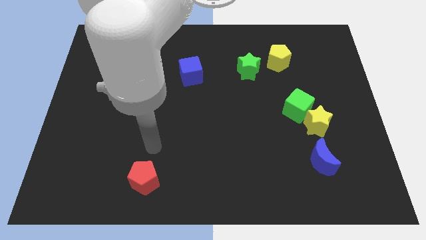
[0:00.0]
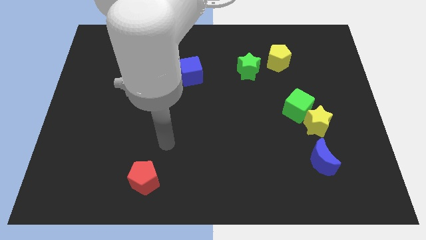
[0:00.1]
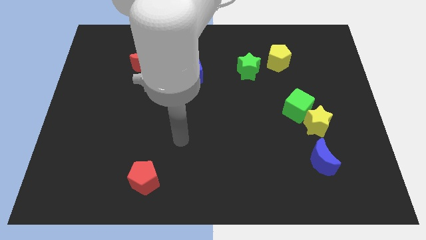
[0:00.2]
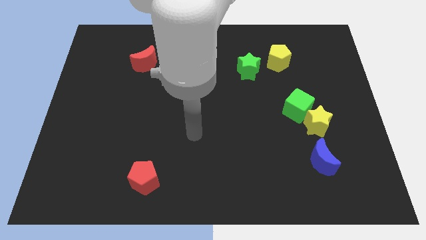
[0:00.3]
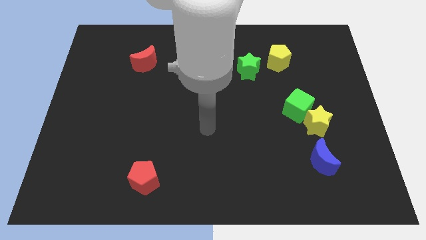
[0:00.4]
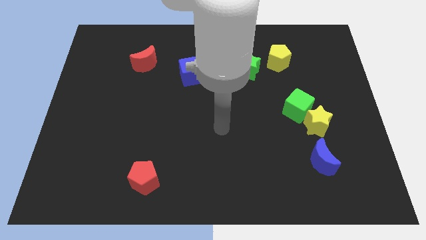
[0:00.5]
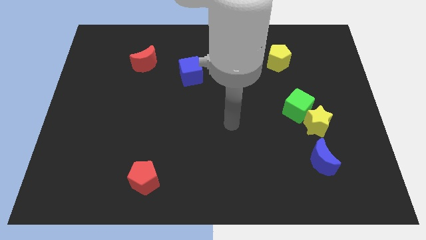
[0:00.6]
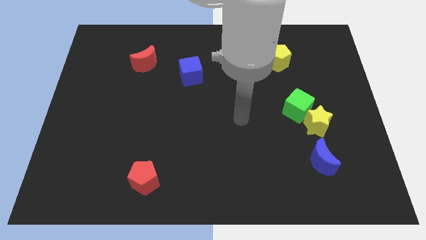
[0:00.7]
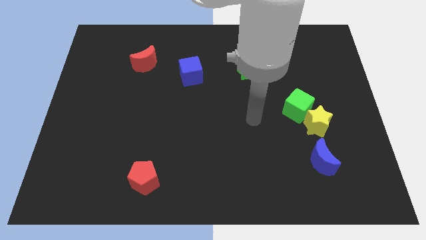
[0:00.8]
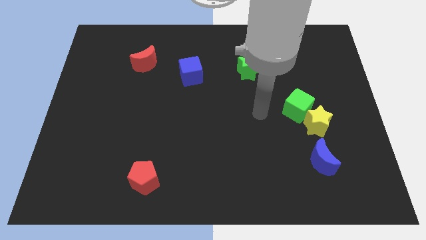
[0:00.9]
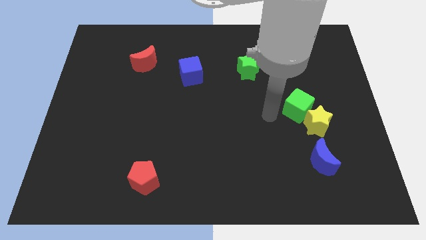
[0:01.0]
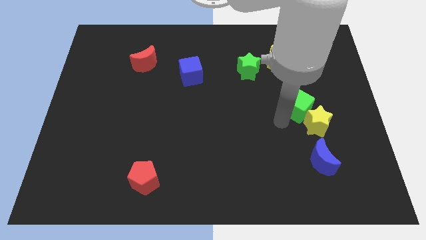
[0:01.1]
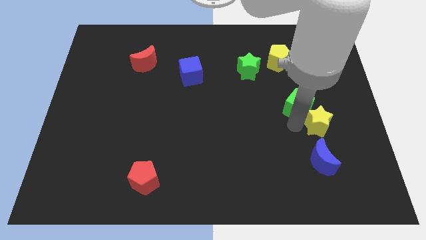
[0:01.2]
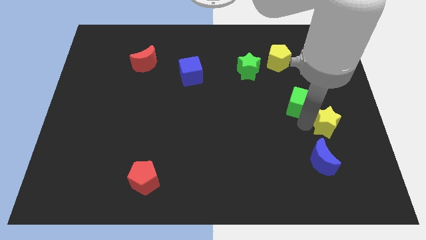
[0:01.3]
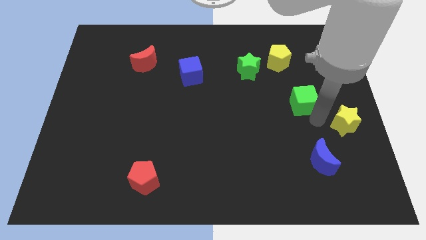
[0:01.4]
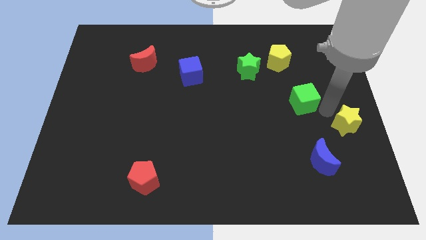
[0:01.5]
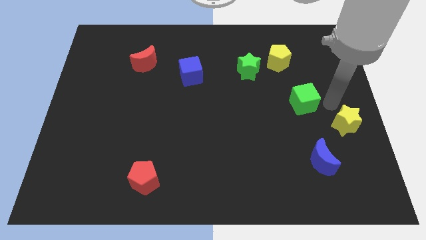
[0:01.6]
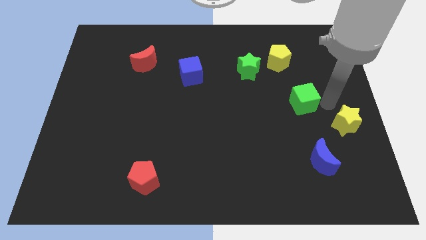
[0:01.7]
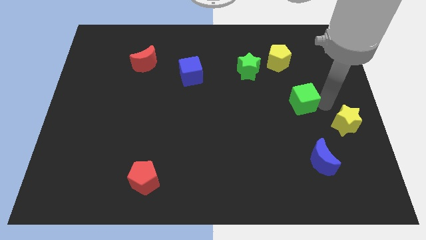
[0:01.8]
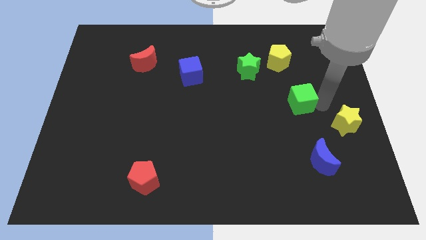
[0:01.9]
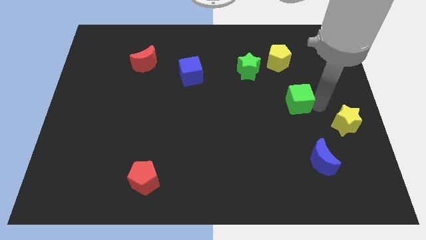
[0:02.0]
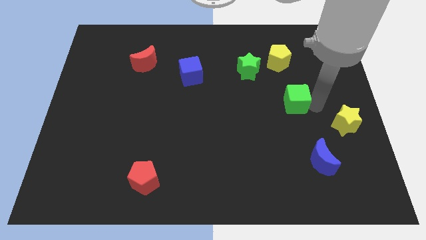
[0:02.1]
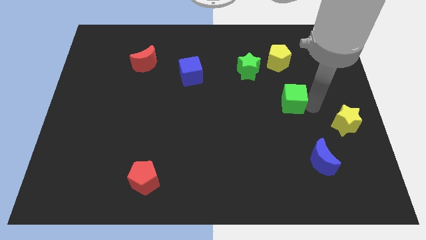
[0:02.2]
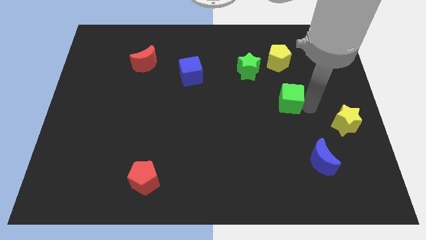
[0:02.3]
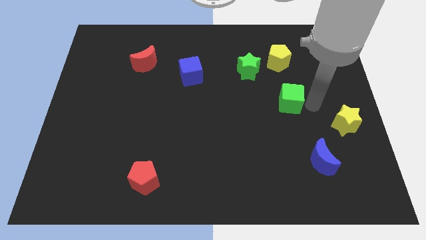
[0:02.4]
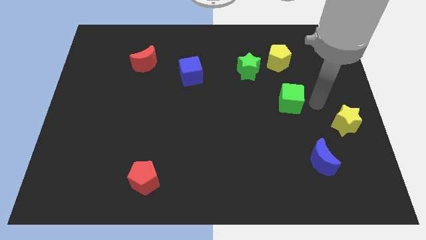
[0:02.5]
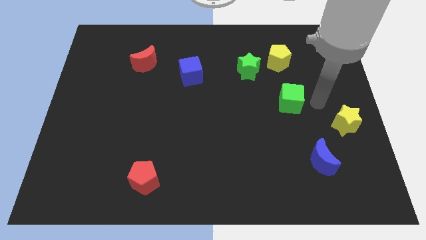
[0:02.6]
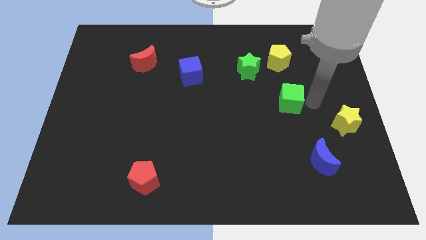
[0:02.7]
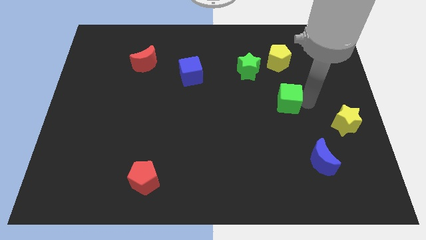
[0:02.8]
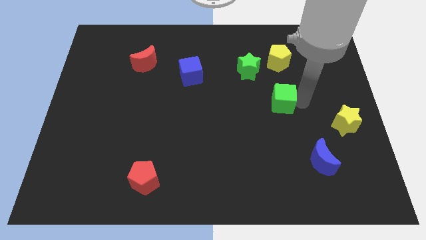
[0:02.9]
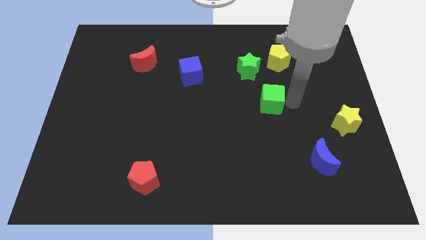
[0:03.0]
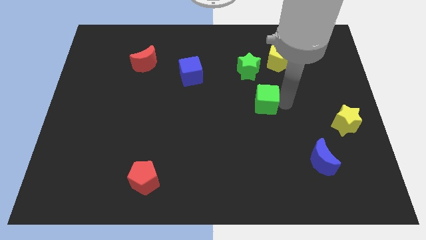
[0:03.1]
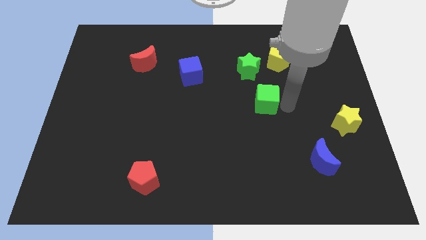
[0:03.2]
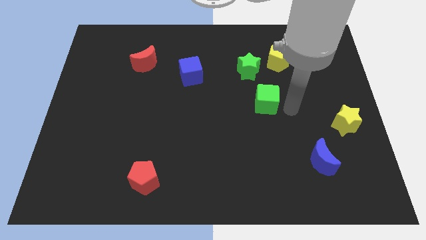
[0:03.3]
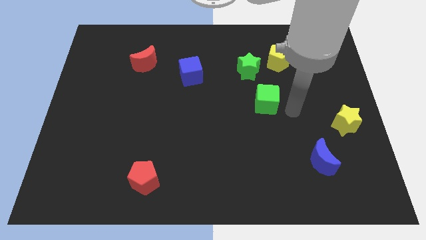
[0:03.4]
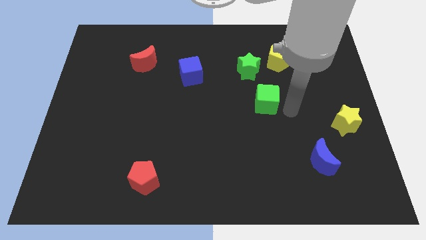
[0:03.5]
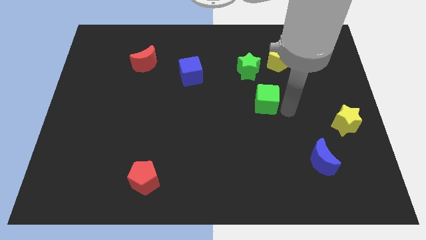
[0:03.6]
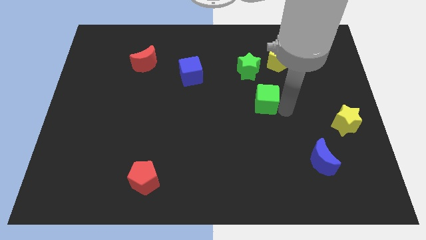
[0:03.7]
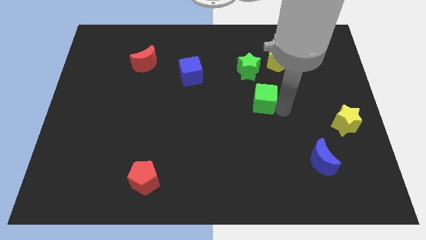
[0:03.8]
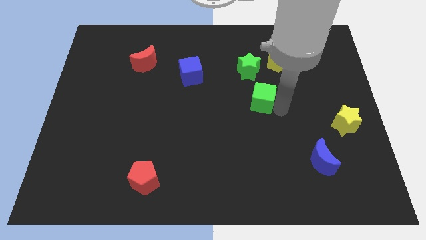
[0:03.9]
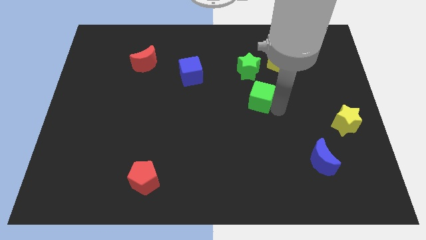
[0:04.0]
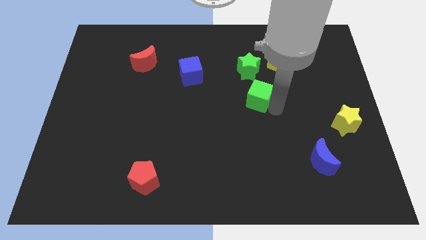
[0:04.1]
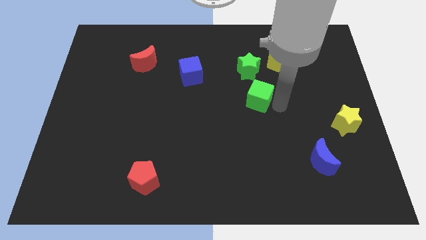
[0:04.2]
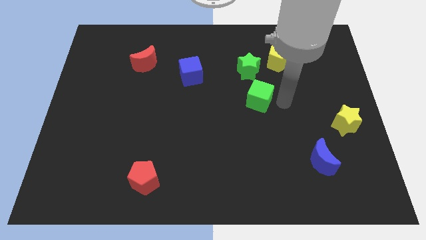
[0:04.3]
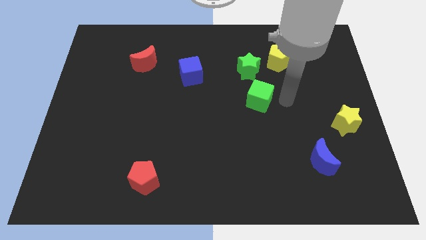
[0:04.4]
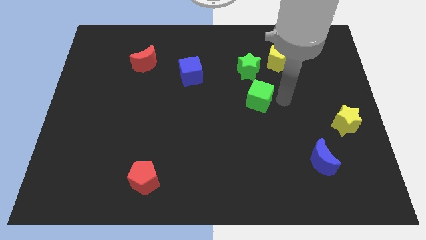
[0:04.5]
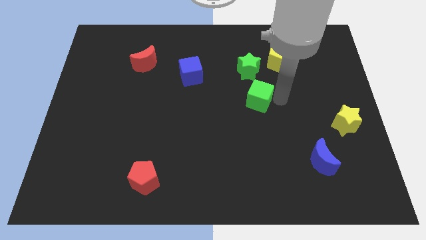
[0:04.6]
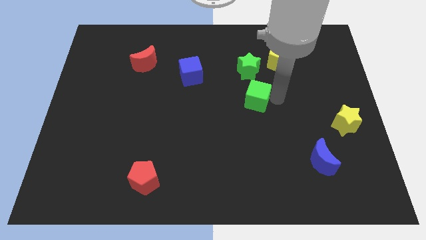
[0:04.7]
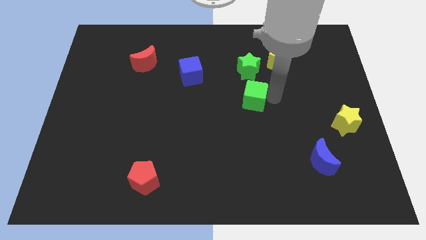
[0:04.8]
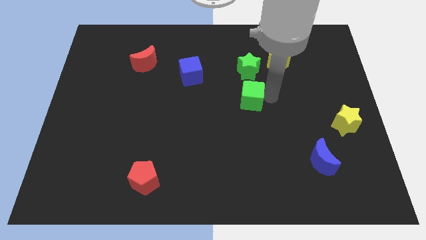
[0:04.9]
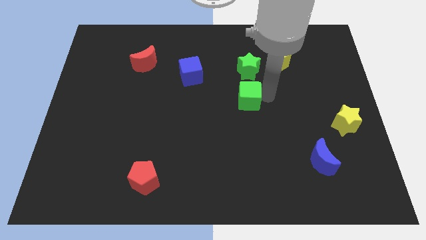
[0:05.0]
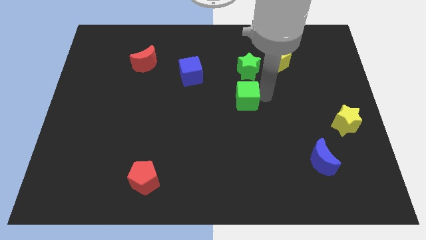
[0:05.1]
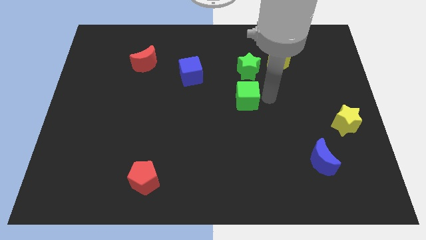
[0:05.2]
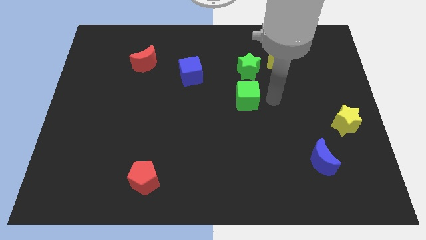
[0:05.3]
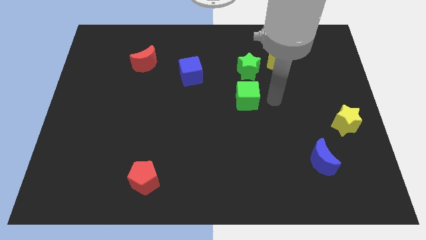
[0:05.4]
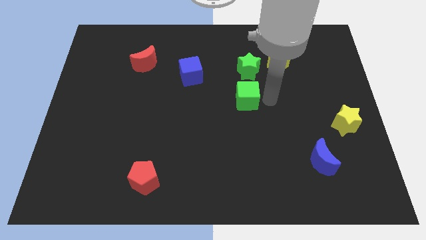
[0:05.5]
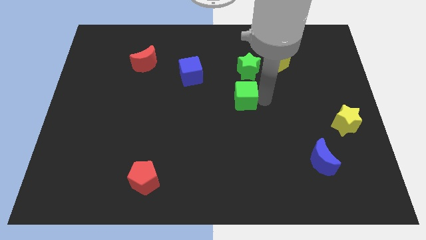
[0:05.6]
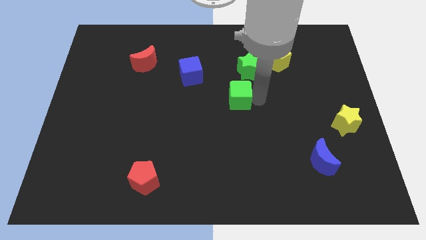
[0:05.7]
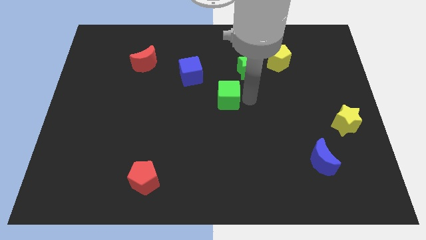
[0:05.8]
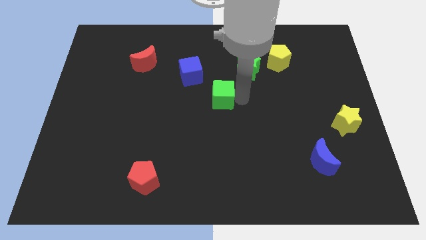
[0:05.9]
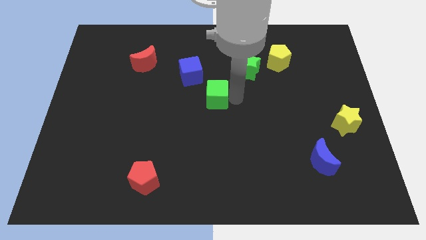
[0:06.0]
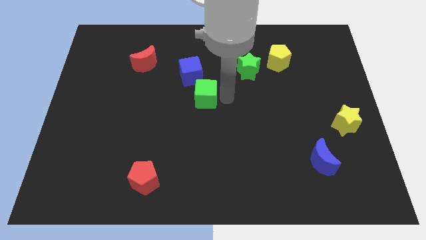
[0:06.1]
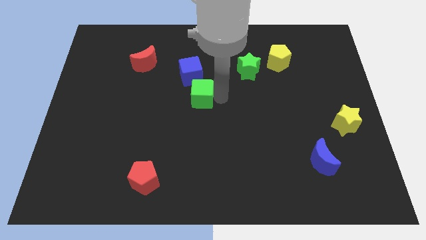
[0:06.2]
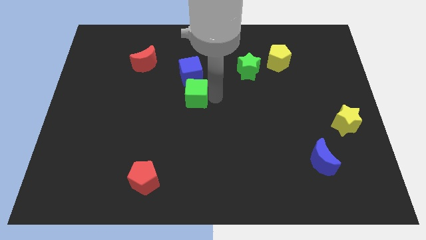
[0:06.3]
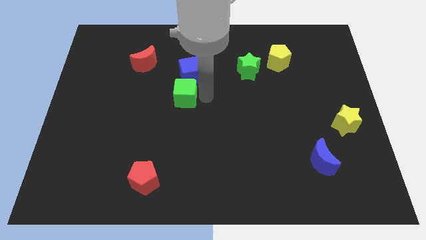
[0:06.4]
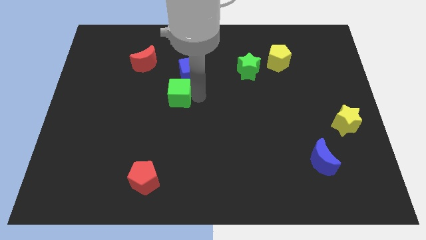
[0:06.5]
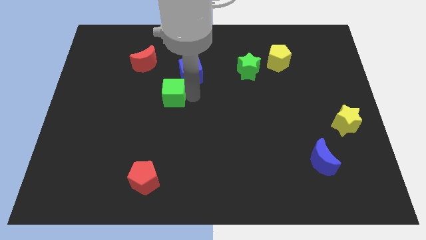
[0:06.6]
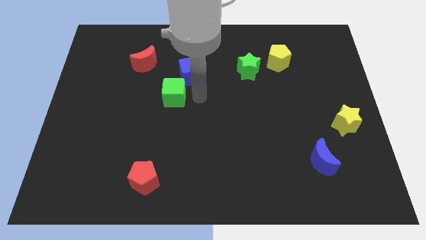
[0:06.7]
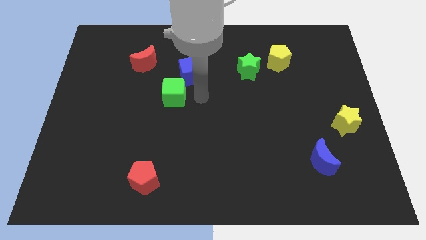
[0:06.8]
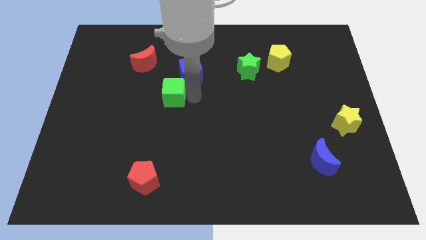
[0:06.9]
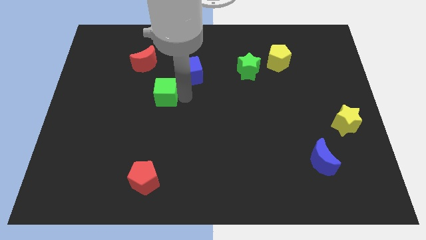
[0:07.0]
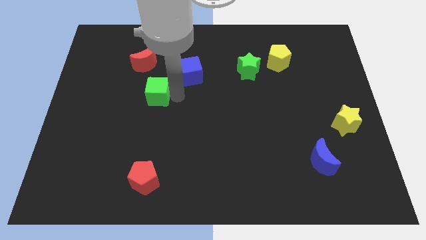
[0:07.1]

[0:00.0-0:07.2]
put the green cube below the red moon
